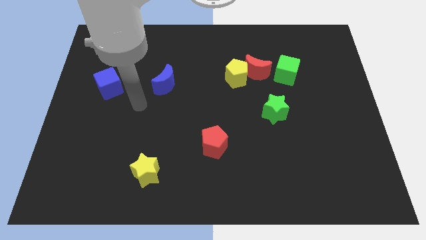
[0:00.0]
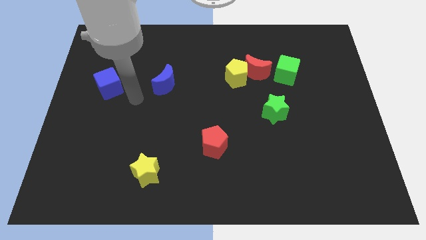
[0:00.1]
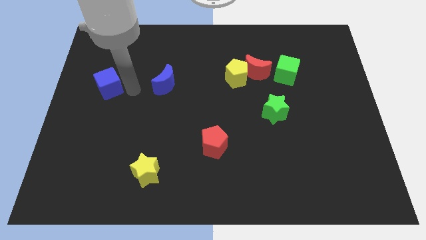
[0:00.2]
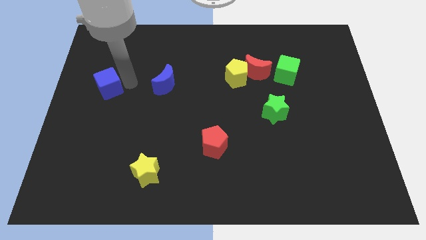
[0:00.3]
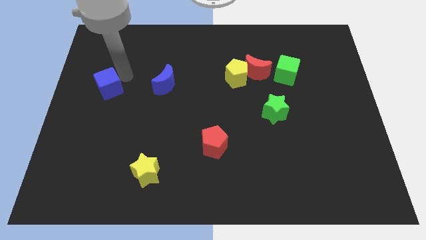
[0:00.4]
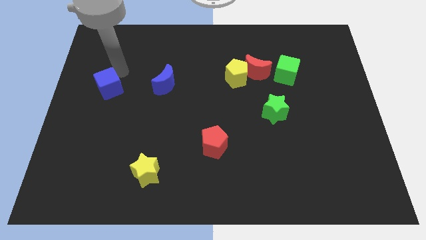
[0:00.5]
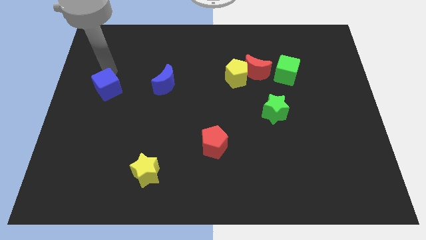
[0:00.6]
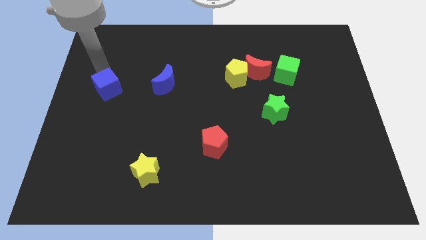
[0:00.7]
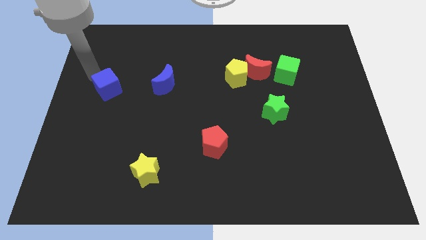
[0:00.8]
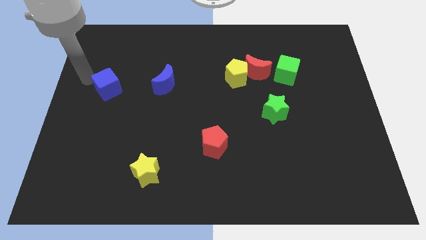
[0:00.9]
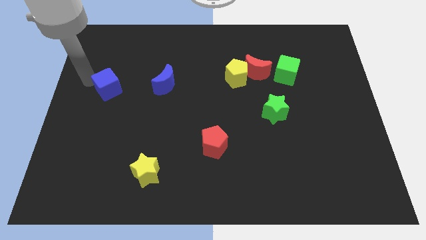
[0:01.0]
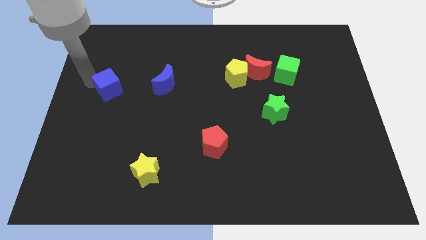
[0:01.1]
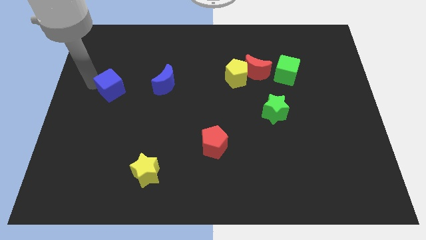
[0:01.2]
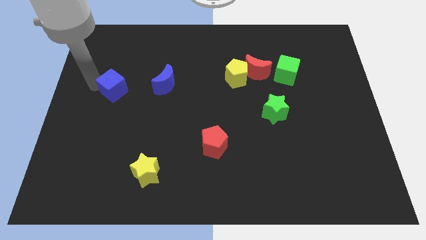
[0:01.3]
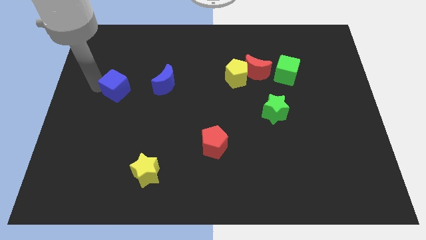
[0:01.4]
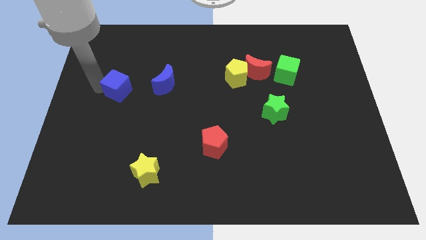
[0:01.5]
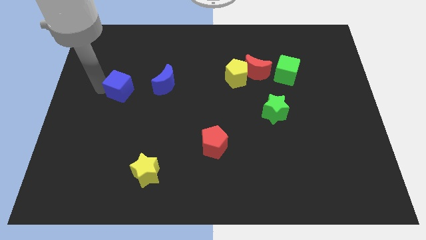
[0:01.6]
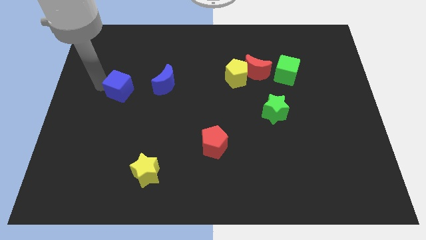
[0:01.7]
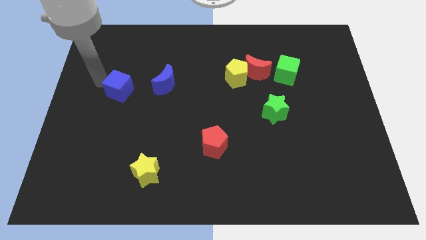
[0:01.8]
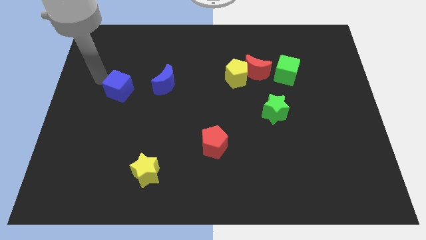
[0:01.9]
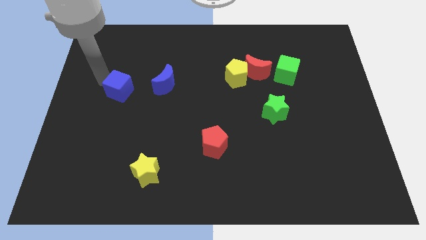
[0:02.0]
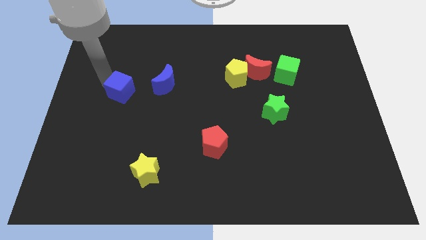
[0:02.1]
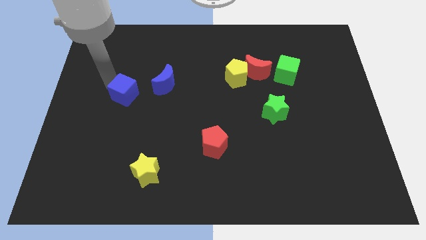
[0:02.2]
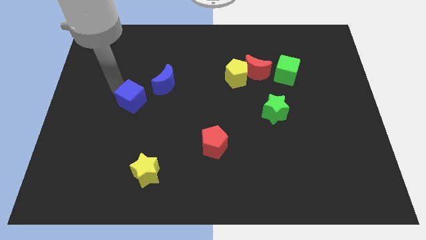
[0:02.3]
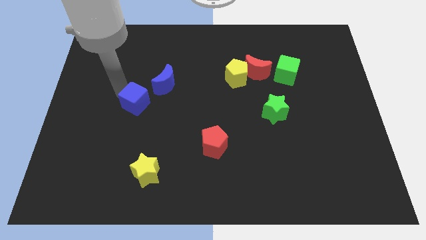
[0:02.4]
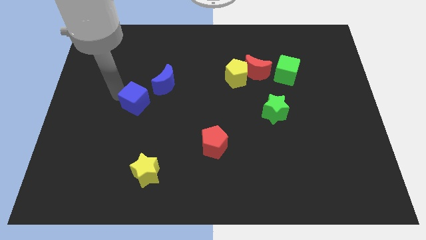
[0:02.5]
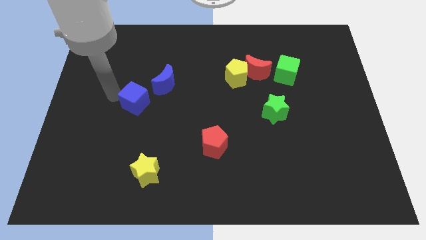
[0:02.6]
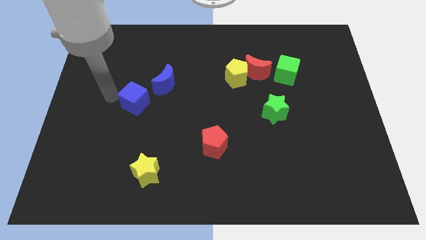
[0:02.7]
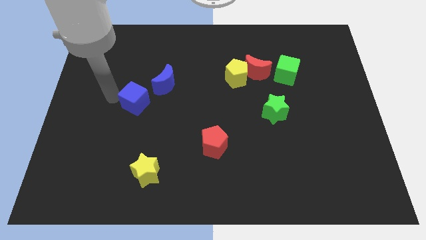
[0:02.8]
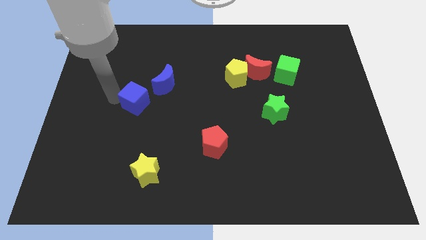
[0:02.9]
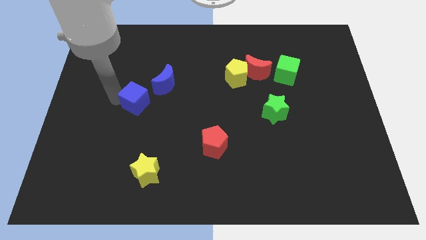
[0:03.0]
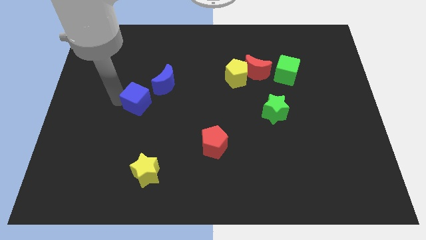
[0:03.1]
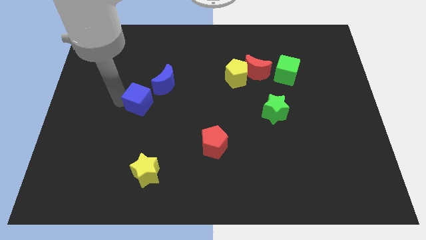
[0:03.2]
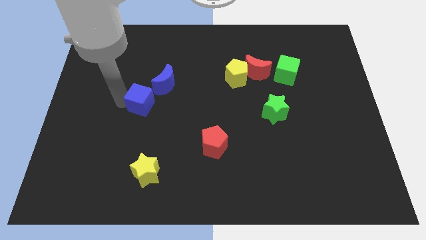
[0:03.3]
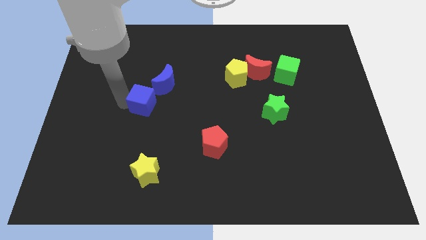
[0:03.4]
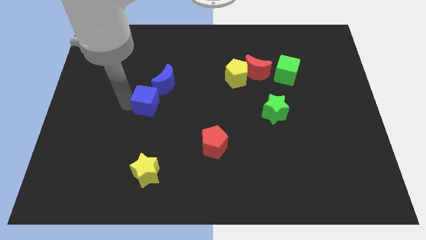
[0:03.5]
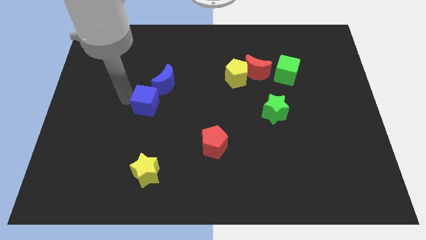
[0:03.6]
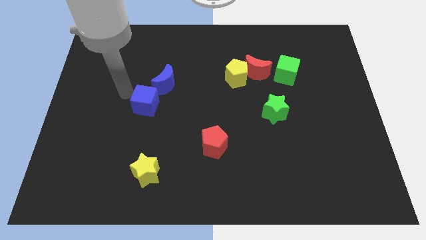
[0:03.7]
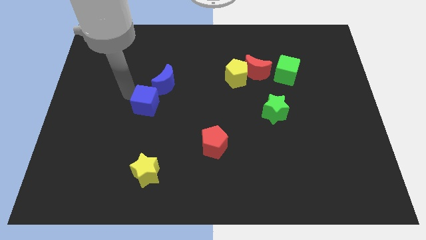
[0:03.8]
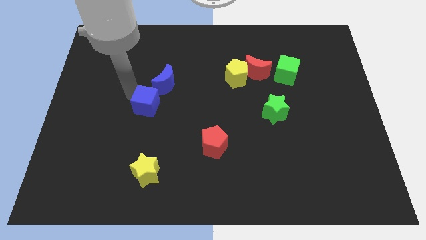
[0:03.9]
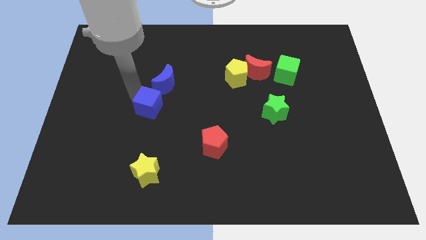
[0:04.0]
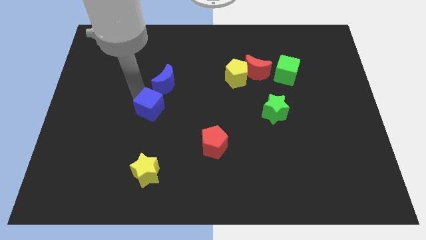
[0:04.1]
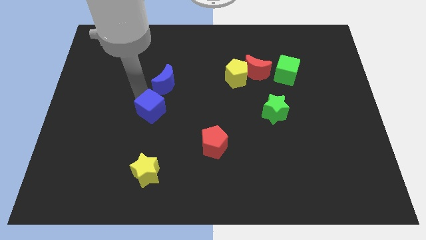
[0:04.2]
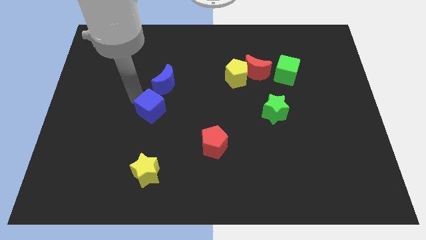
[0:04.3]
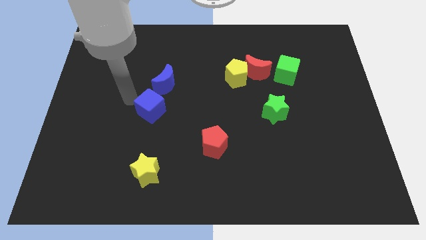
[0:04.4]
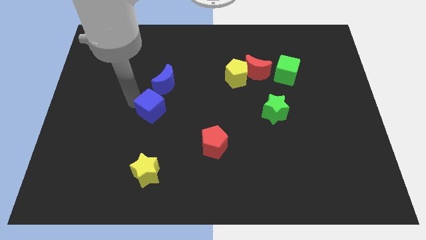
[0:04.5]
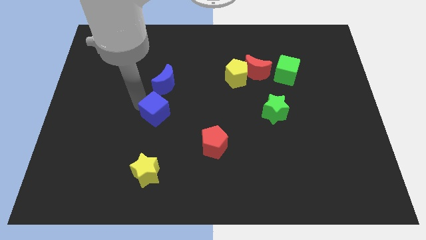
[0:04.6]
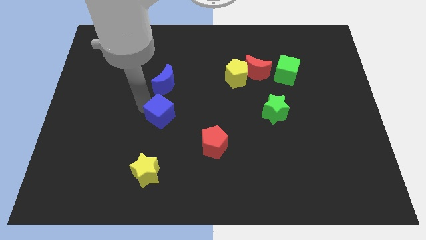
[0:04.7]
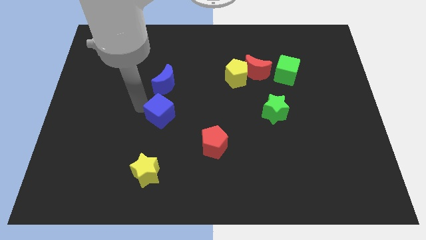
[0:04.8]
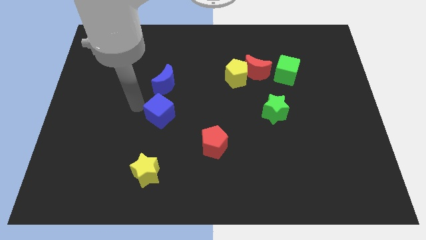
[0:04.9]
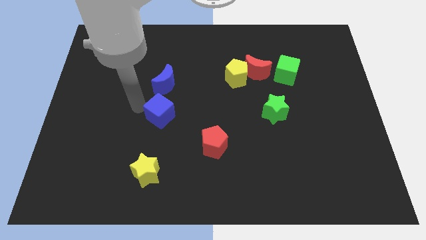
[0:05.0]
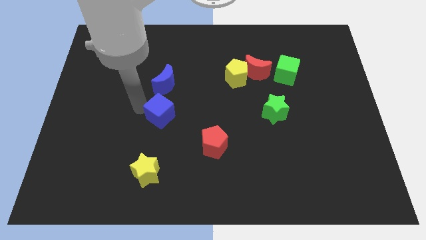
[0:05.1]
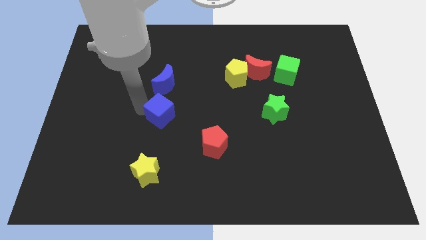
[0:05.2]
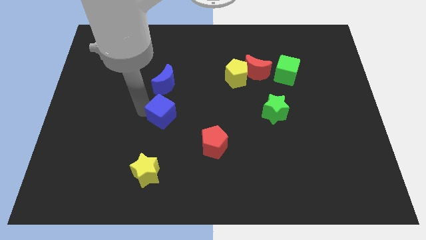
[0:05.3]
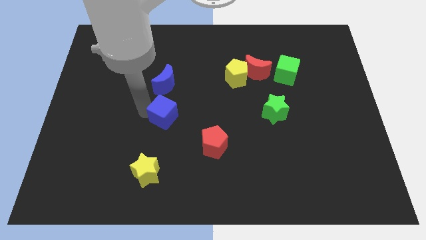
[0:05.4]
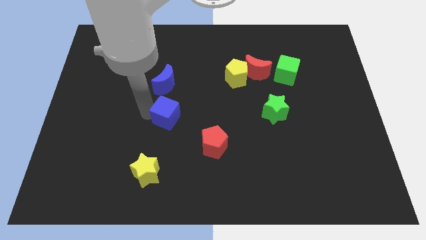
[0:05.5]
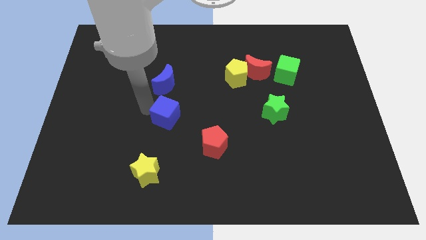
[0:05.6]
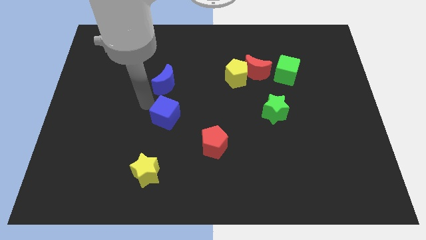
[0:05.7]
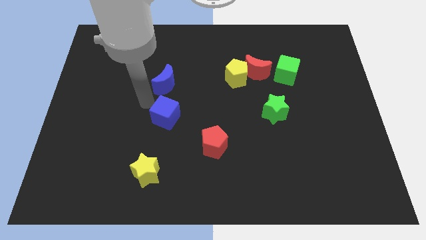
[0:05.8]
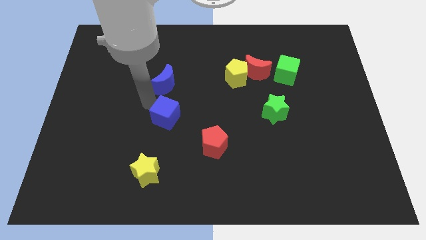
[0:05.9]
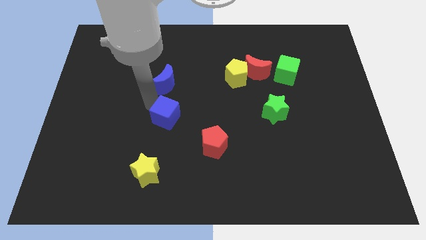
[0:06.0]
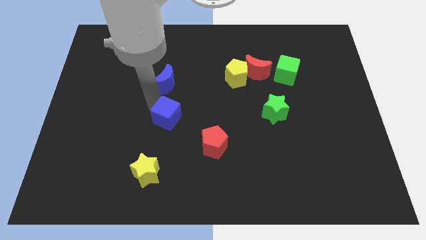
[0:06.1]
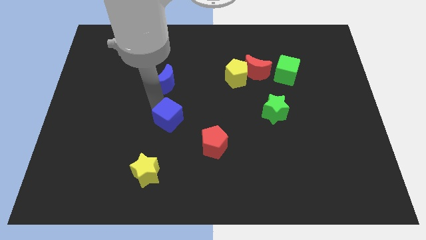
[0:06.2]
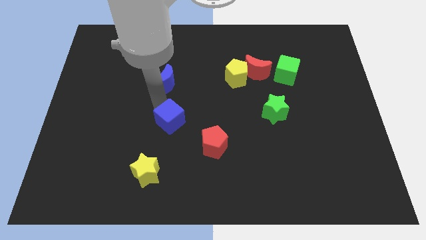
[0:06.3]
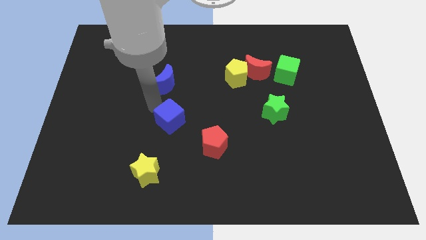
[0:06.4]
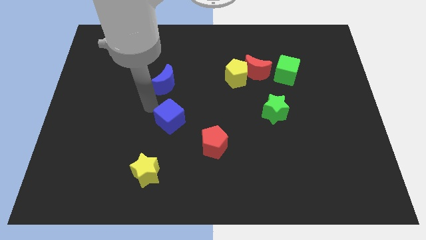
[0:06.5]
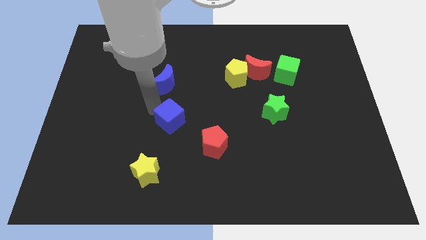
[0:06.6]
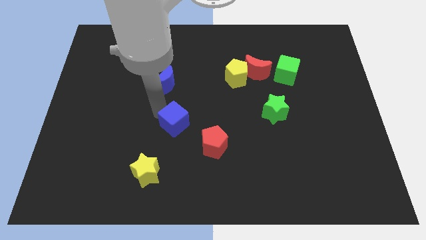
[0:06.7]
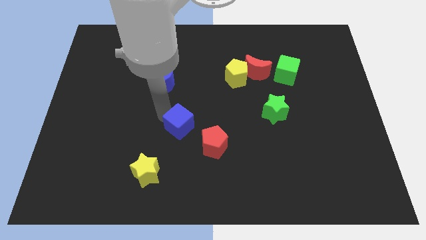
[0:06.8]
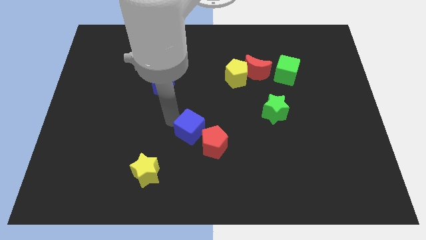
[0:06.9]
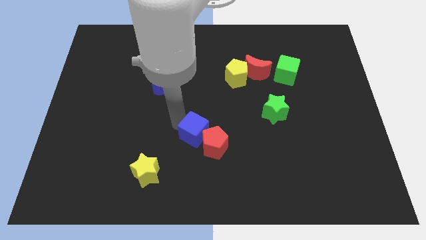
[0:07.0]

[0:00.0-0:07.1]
put the blue cube next to the red pentagon
